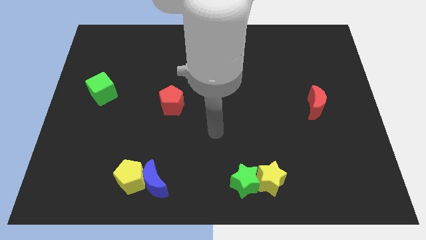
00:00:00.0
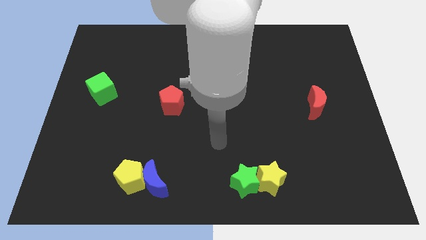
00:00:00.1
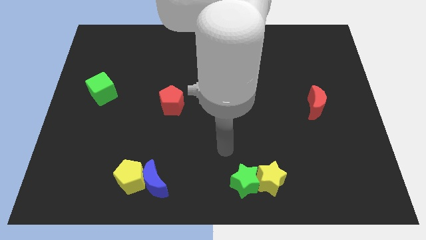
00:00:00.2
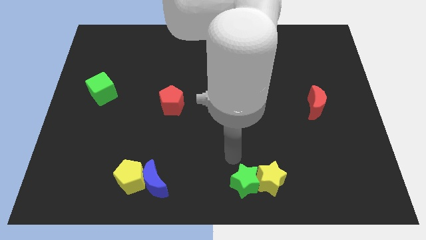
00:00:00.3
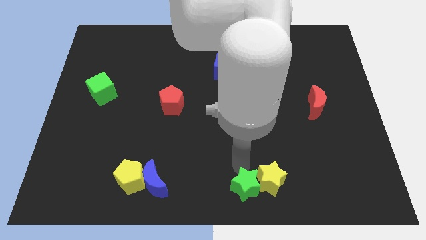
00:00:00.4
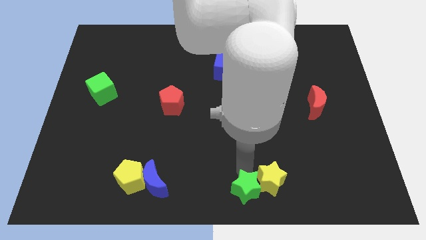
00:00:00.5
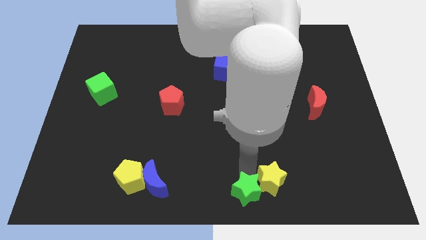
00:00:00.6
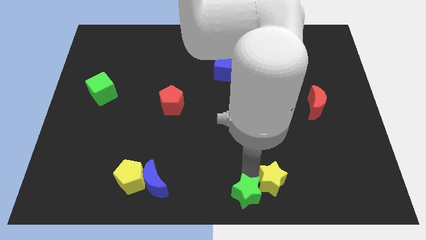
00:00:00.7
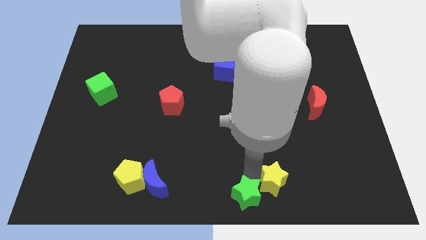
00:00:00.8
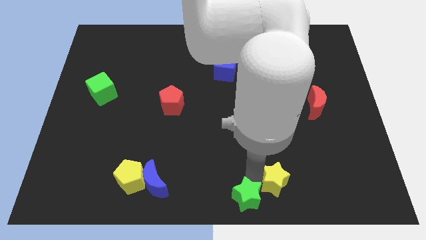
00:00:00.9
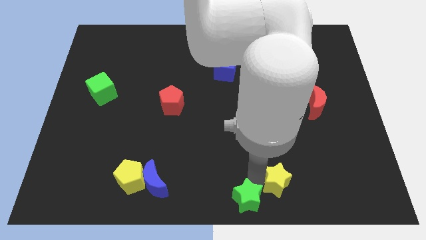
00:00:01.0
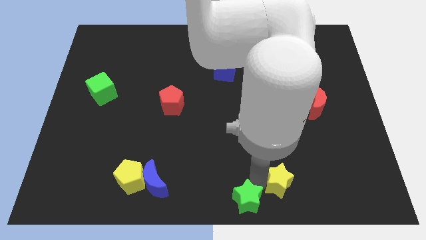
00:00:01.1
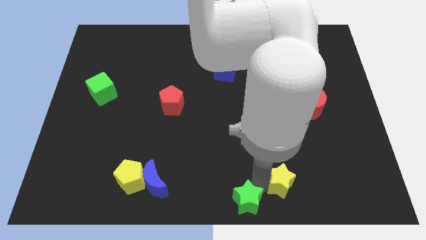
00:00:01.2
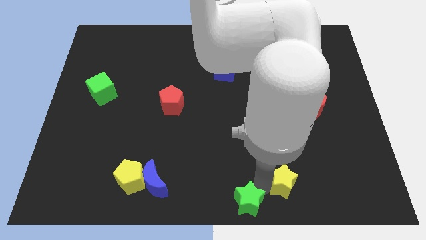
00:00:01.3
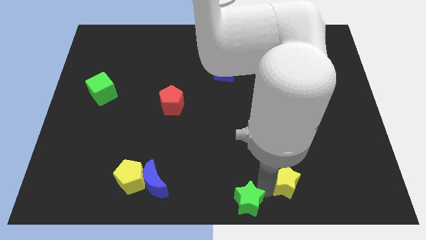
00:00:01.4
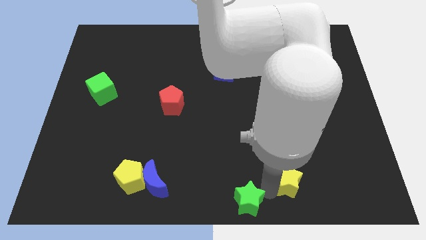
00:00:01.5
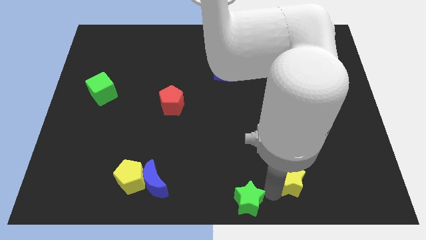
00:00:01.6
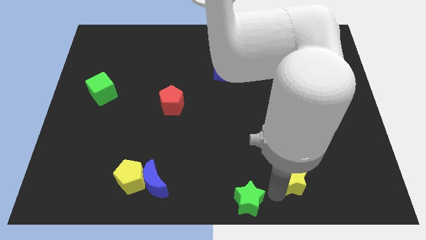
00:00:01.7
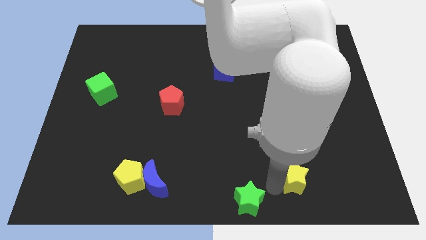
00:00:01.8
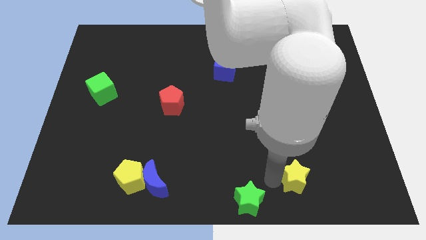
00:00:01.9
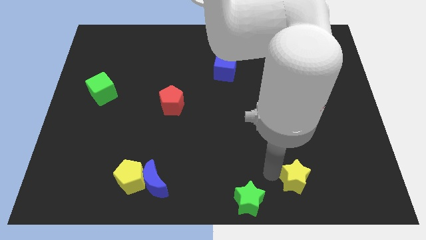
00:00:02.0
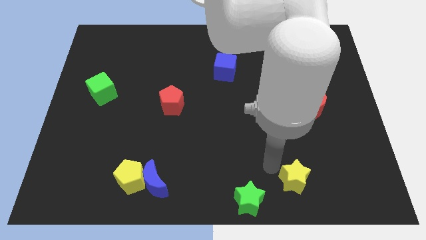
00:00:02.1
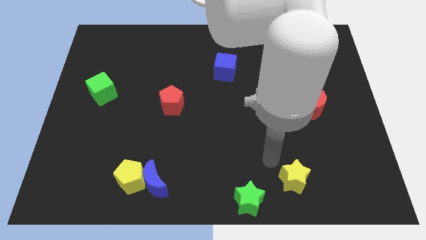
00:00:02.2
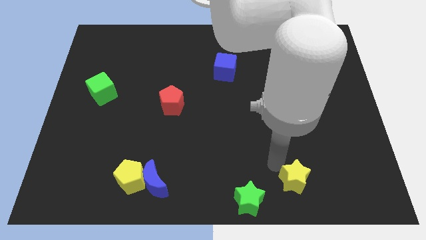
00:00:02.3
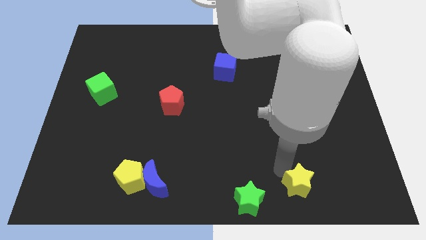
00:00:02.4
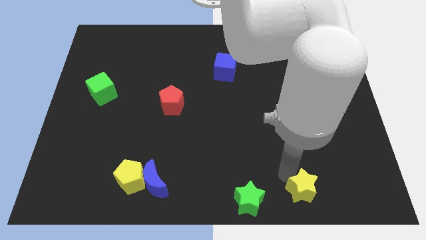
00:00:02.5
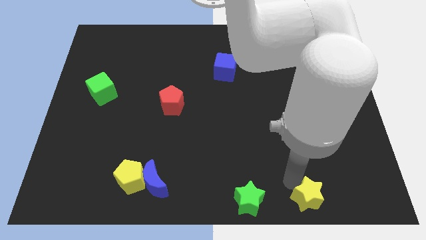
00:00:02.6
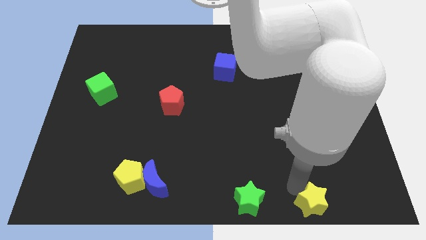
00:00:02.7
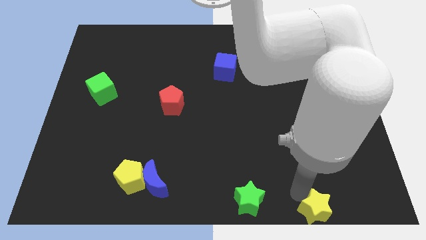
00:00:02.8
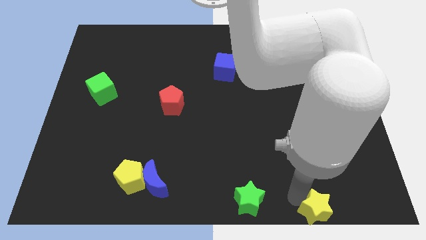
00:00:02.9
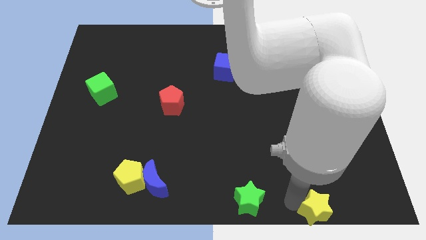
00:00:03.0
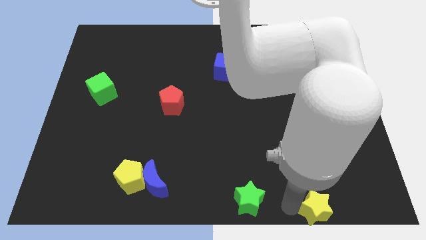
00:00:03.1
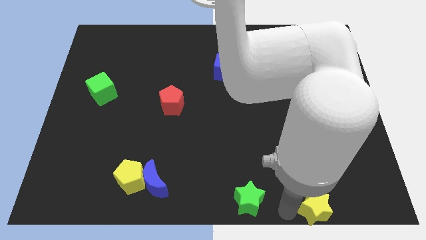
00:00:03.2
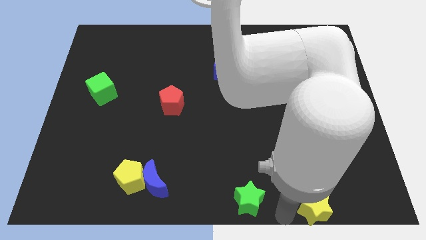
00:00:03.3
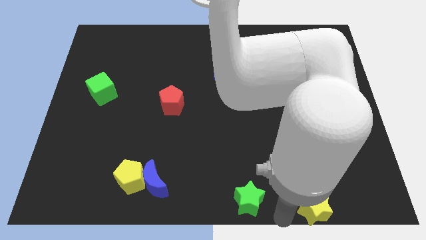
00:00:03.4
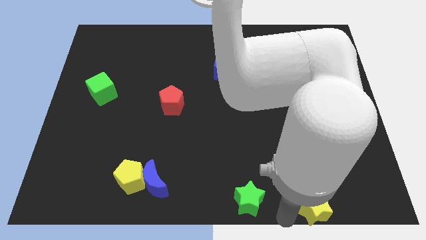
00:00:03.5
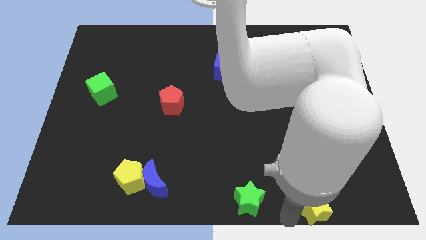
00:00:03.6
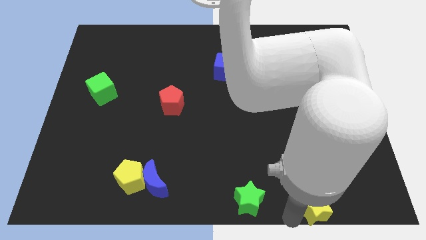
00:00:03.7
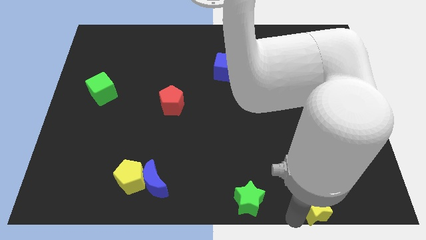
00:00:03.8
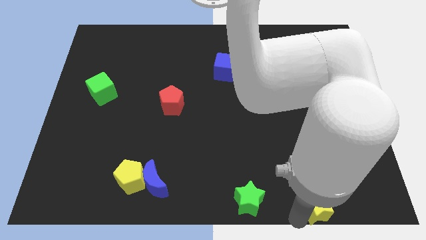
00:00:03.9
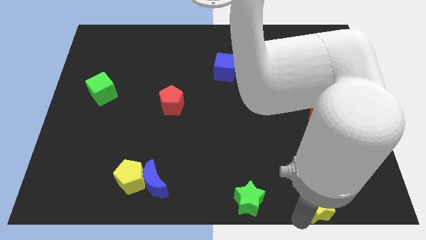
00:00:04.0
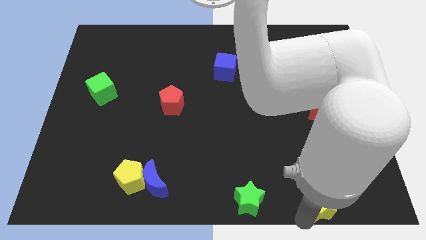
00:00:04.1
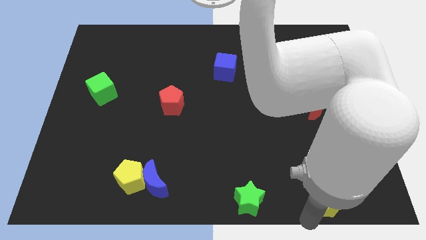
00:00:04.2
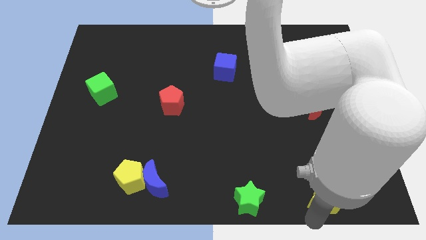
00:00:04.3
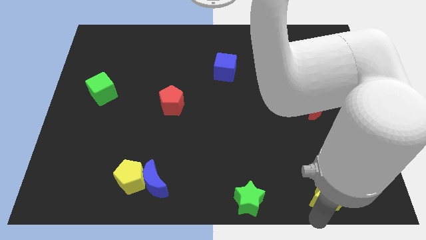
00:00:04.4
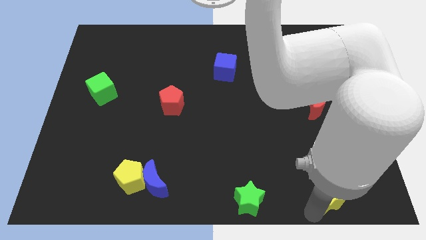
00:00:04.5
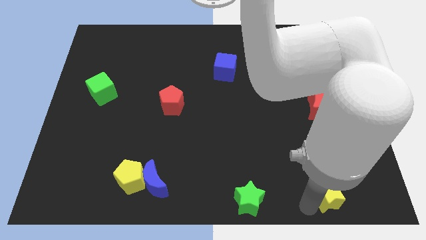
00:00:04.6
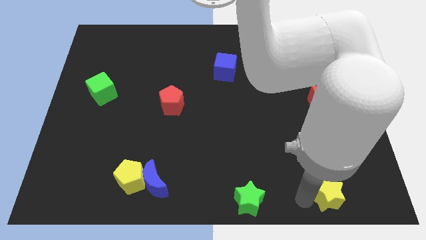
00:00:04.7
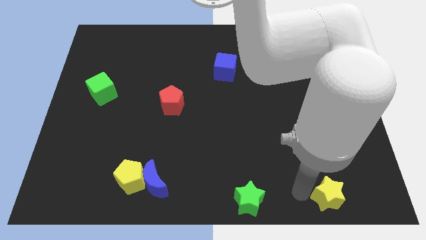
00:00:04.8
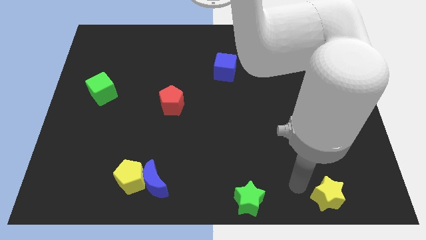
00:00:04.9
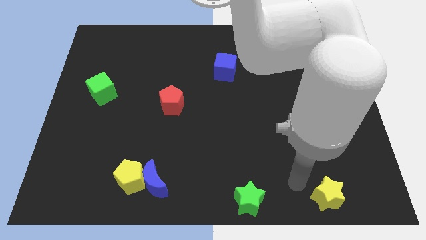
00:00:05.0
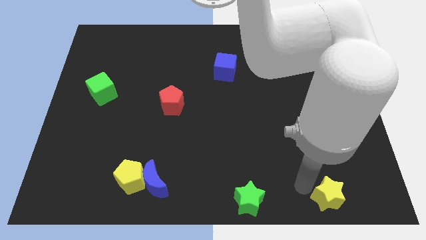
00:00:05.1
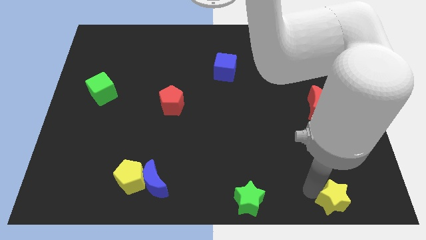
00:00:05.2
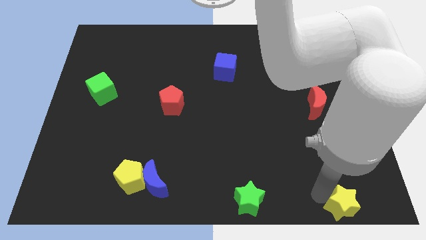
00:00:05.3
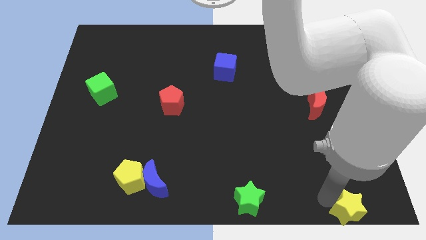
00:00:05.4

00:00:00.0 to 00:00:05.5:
slide the yellow star to the lower right corner
